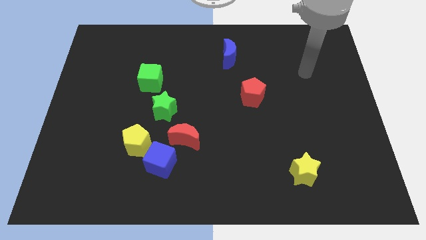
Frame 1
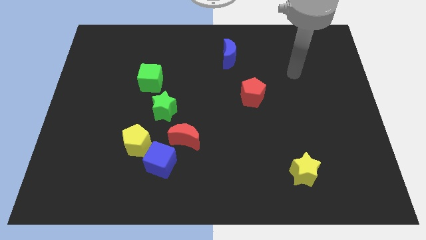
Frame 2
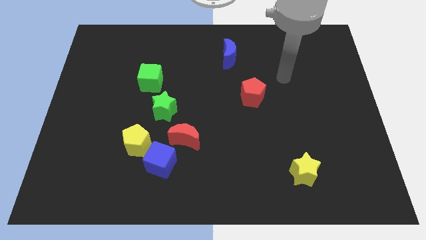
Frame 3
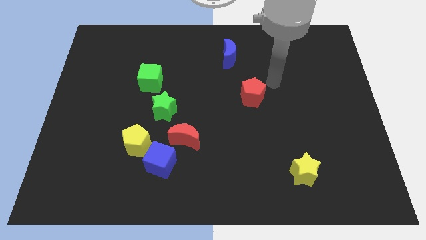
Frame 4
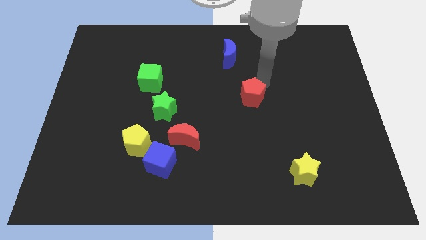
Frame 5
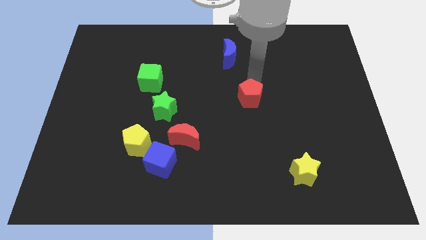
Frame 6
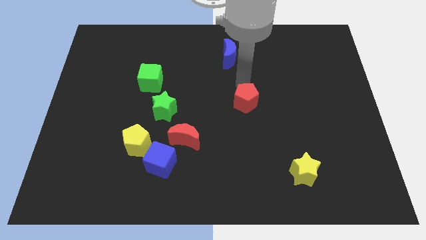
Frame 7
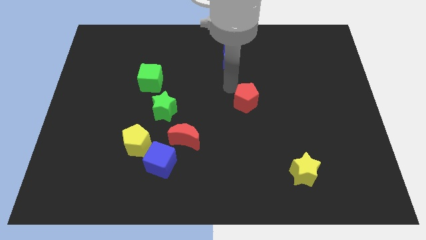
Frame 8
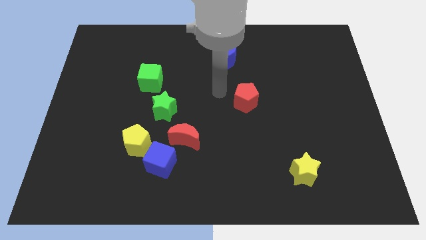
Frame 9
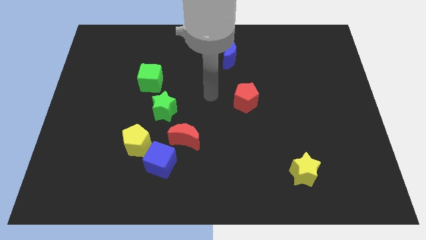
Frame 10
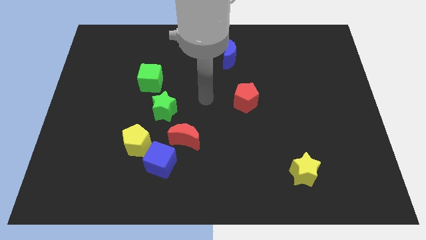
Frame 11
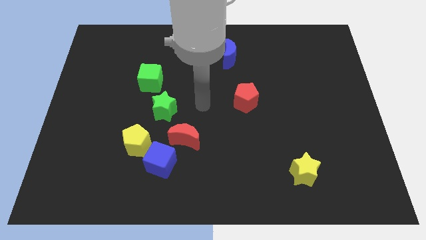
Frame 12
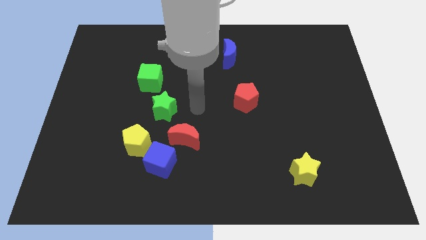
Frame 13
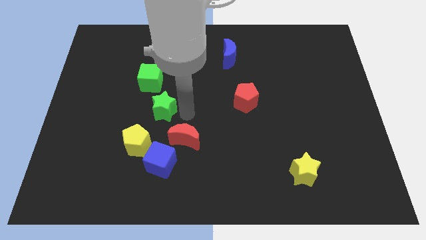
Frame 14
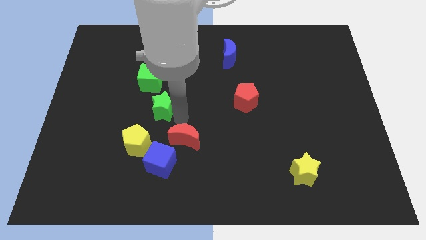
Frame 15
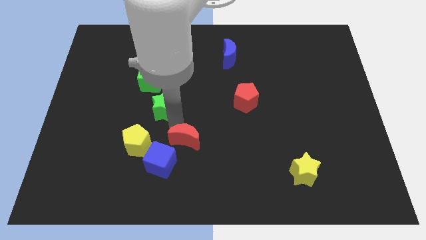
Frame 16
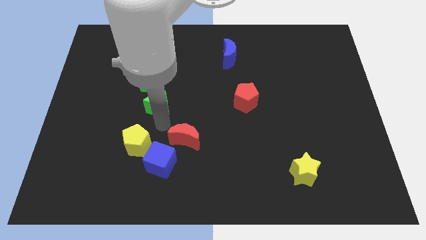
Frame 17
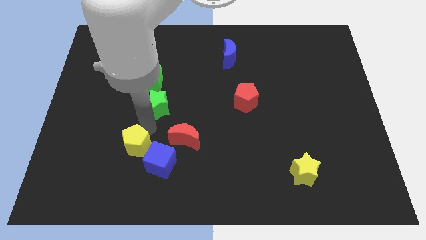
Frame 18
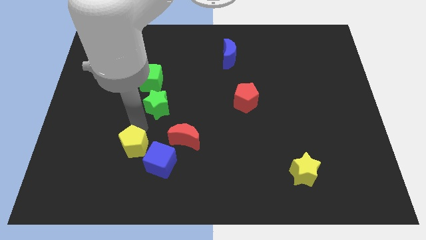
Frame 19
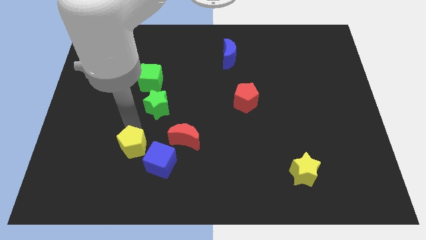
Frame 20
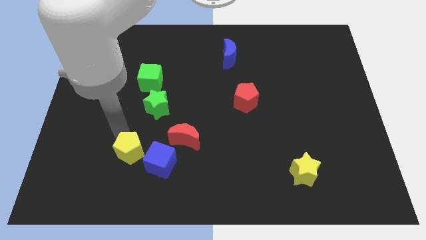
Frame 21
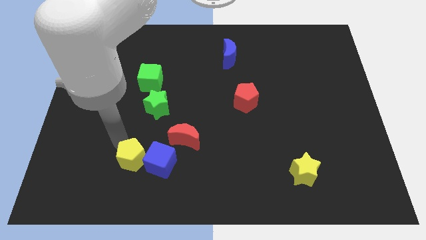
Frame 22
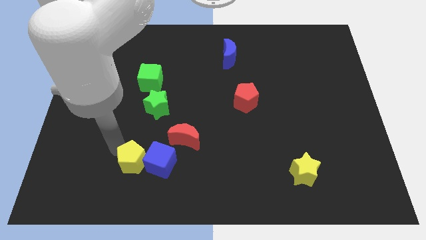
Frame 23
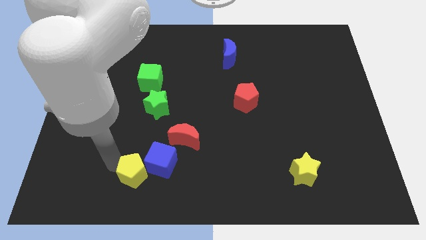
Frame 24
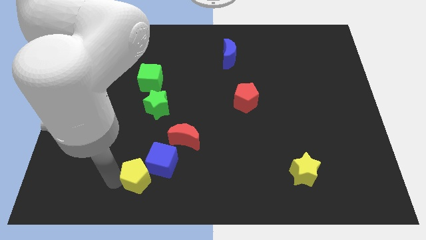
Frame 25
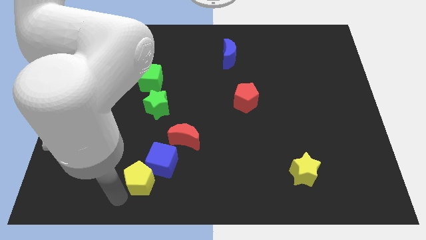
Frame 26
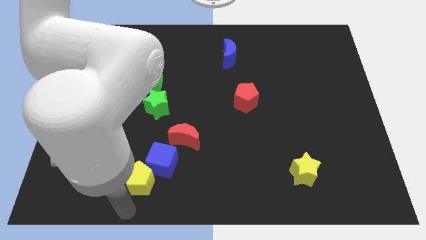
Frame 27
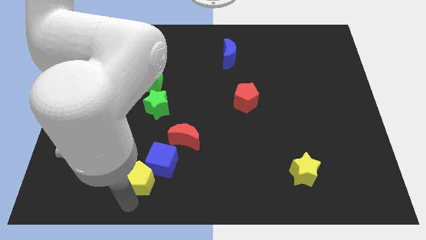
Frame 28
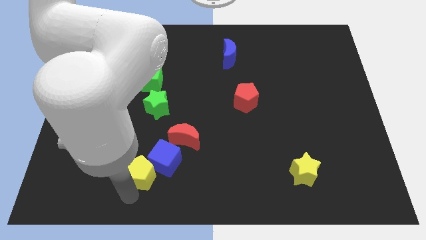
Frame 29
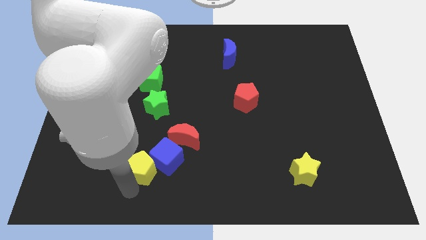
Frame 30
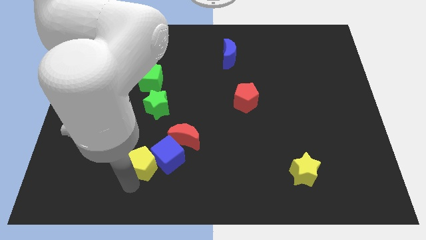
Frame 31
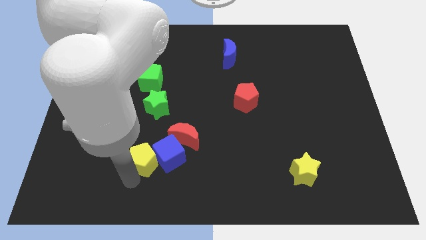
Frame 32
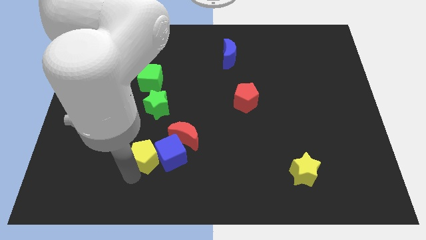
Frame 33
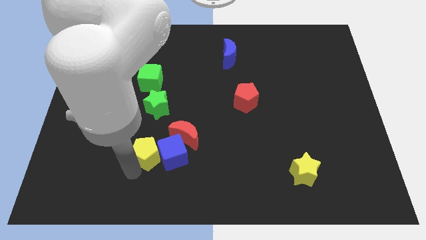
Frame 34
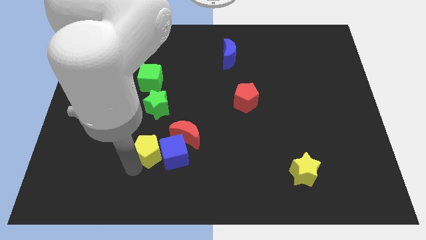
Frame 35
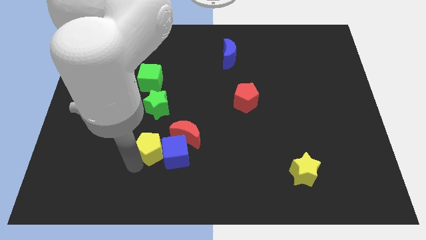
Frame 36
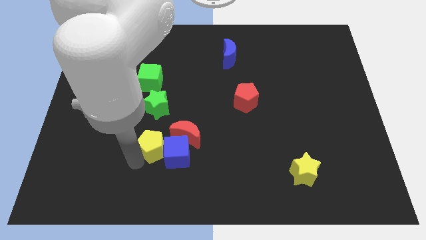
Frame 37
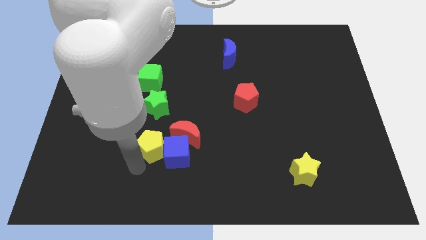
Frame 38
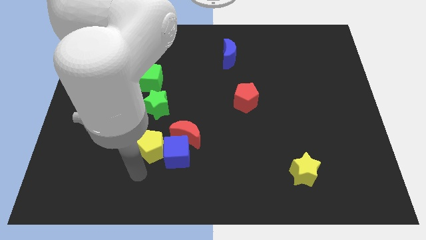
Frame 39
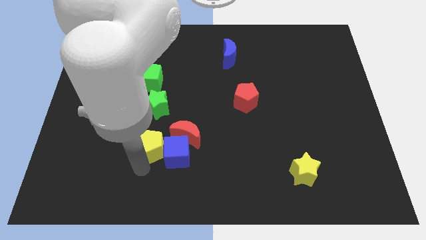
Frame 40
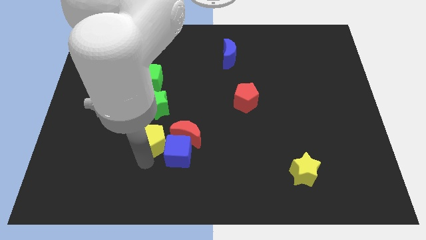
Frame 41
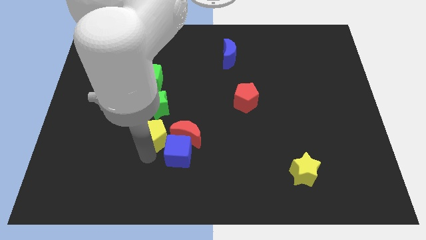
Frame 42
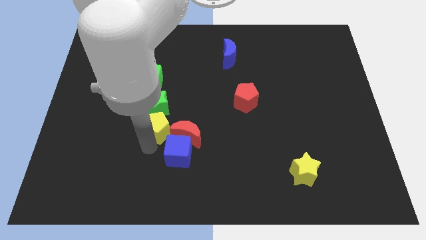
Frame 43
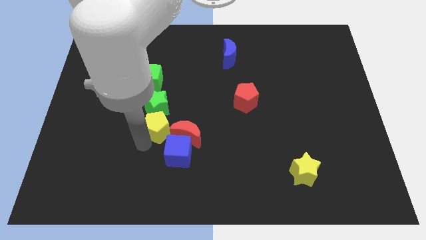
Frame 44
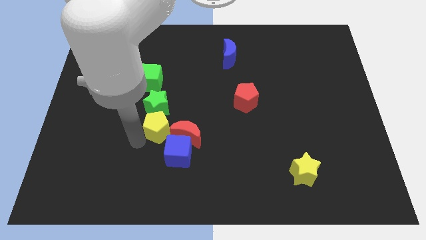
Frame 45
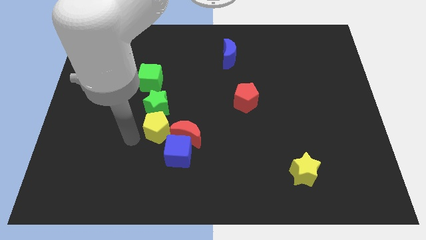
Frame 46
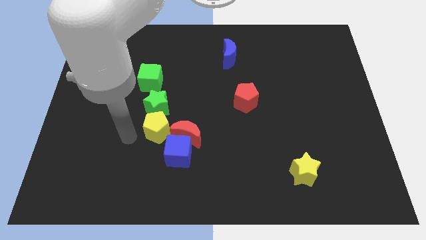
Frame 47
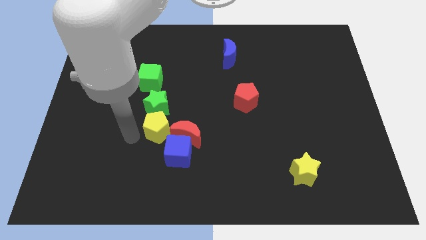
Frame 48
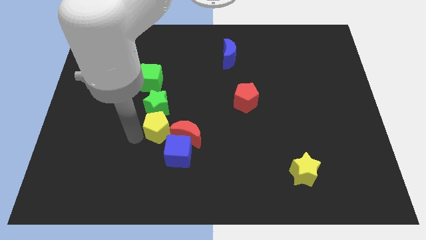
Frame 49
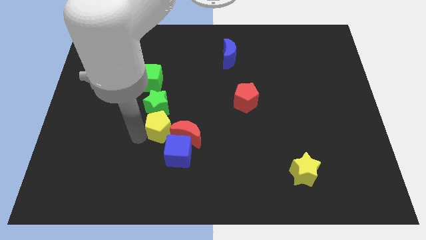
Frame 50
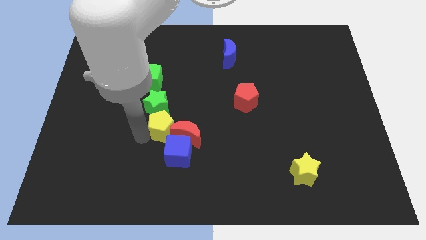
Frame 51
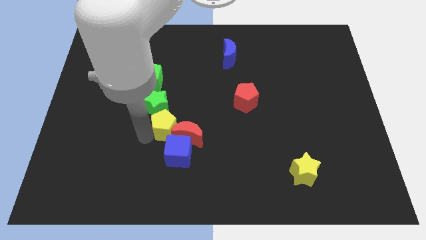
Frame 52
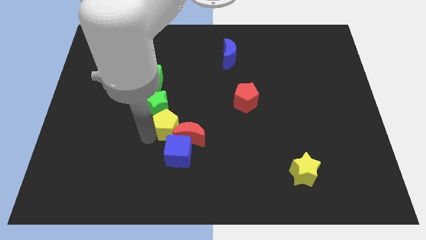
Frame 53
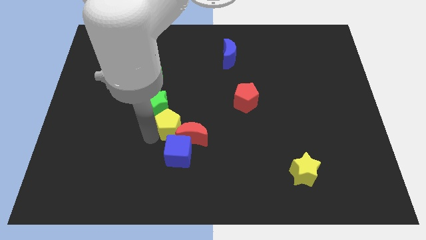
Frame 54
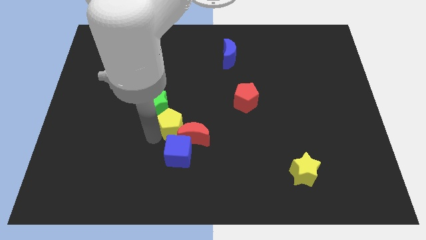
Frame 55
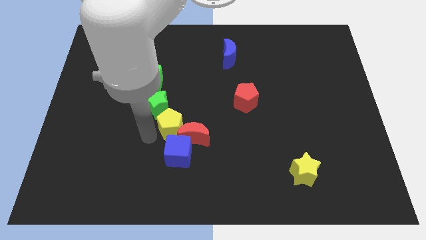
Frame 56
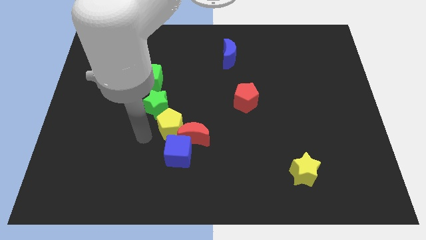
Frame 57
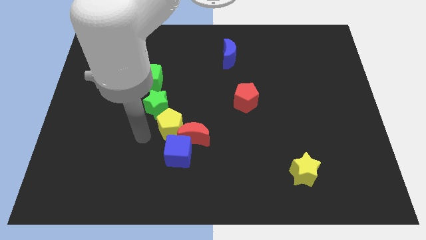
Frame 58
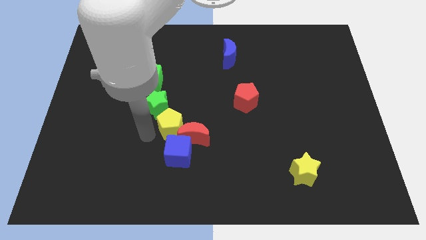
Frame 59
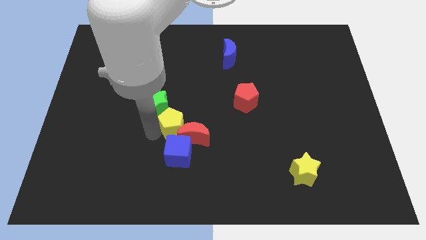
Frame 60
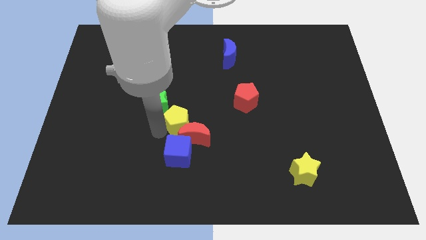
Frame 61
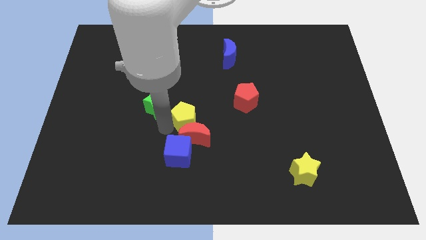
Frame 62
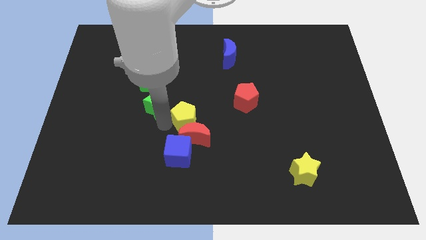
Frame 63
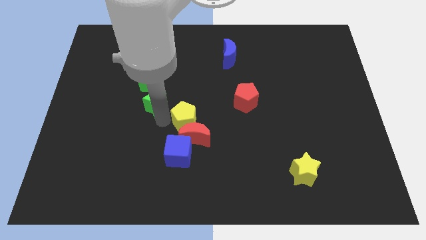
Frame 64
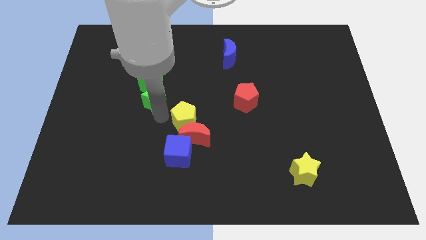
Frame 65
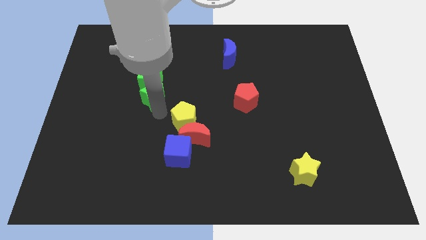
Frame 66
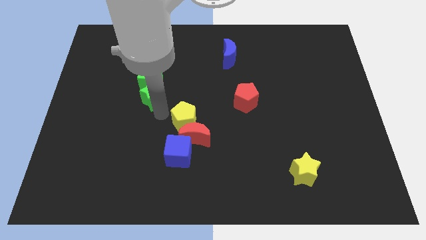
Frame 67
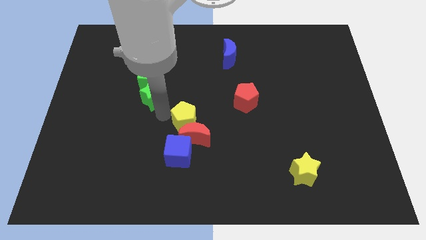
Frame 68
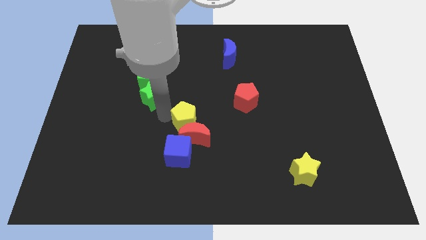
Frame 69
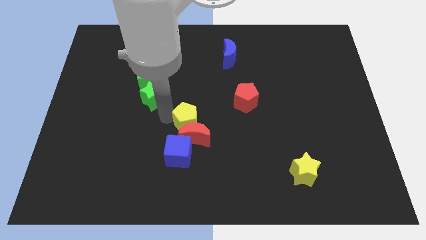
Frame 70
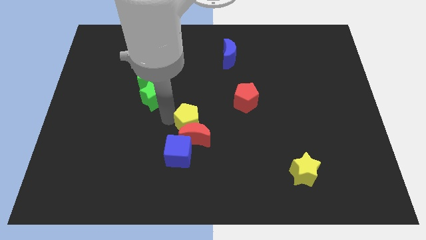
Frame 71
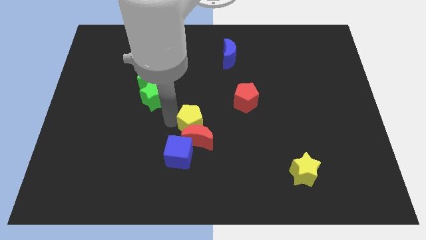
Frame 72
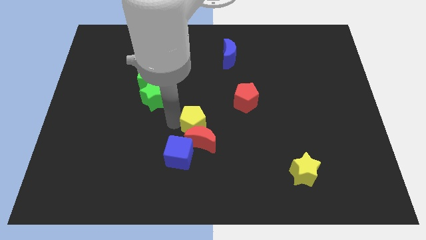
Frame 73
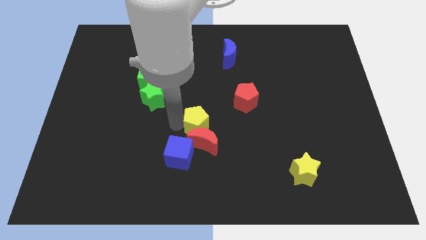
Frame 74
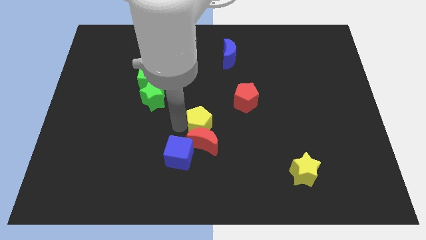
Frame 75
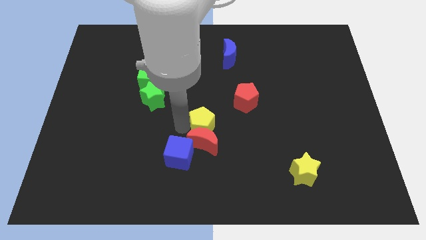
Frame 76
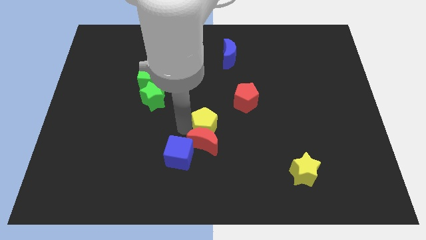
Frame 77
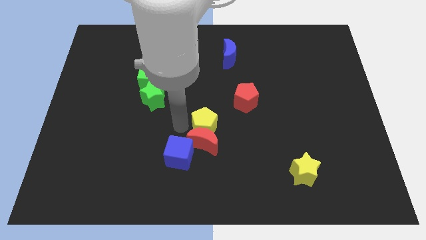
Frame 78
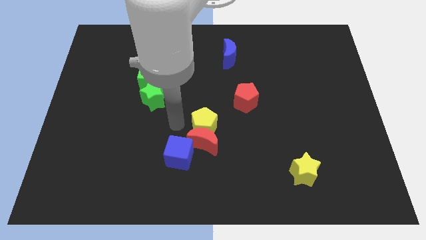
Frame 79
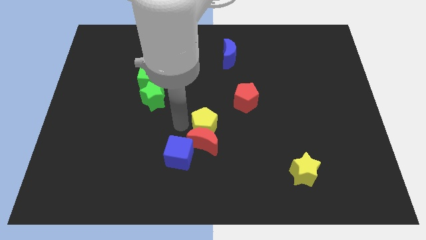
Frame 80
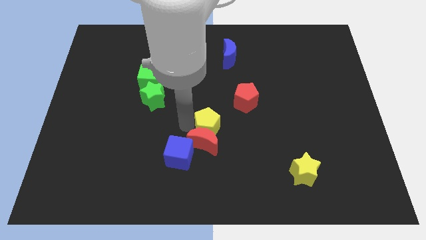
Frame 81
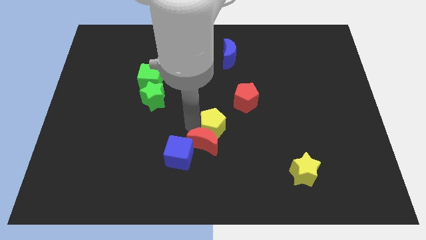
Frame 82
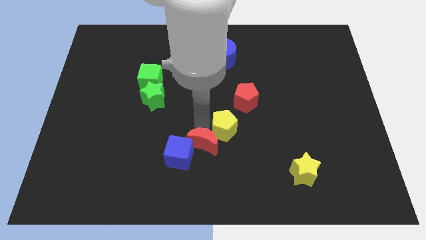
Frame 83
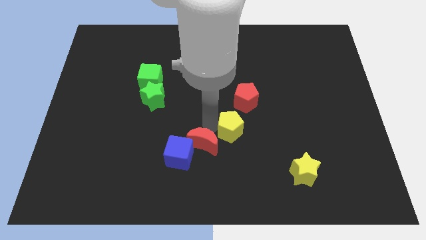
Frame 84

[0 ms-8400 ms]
move the yellow pentagon to the right
